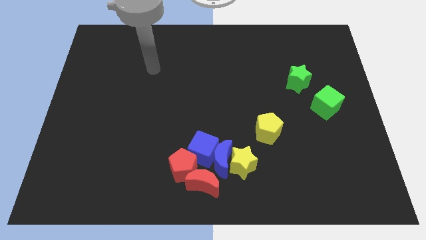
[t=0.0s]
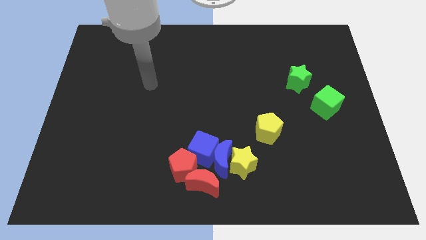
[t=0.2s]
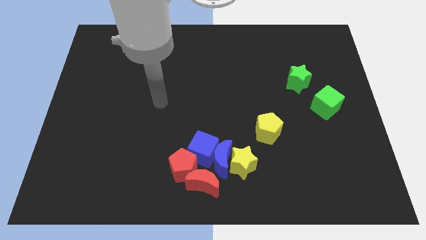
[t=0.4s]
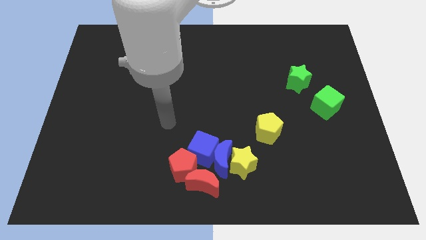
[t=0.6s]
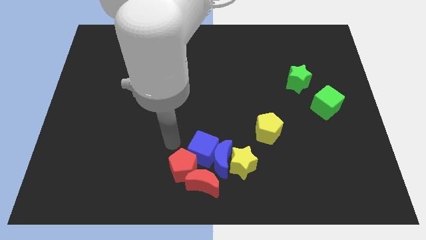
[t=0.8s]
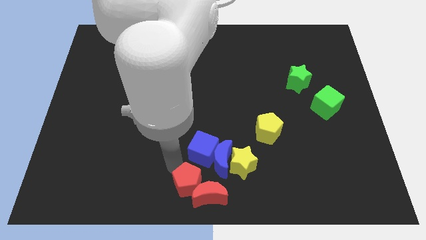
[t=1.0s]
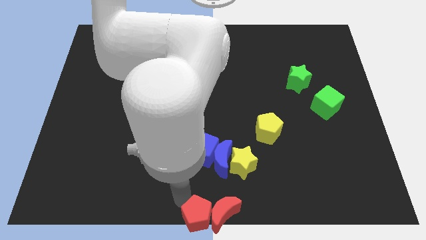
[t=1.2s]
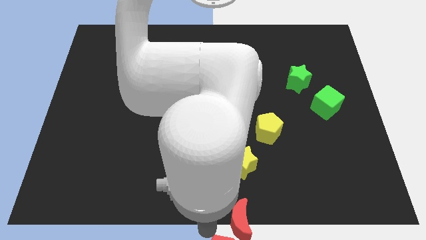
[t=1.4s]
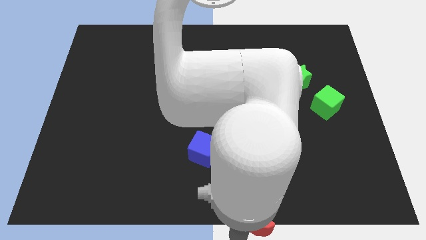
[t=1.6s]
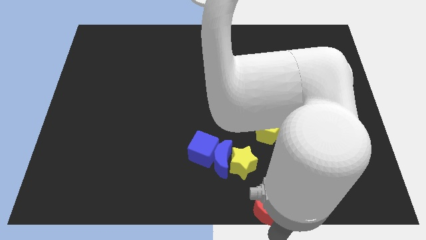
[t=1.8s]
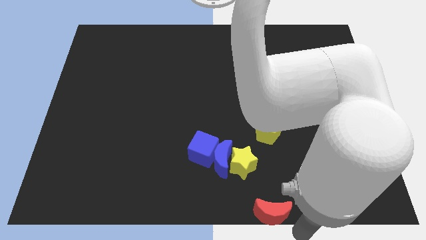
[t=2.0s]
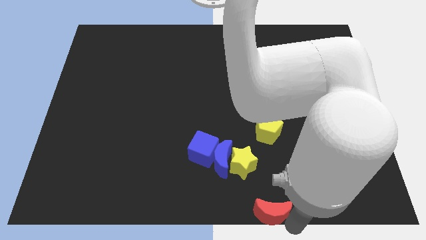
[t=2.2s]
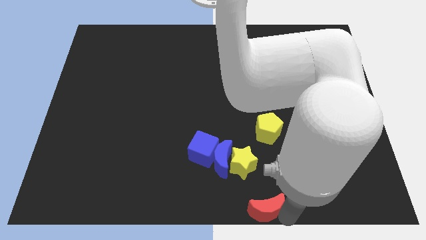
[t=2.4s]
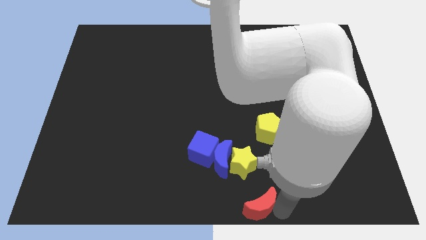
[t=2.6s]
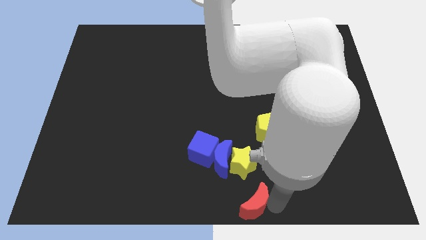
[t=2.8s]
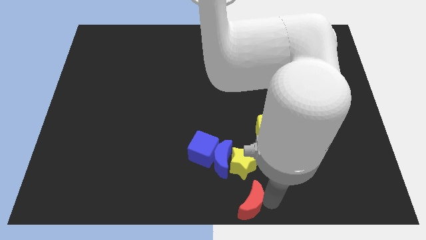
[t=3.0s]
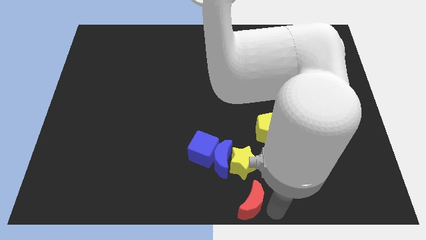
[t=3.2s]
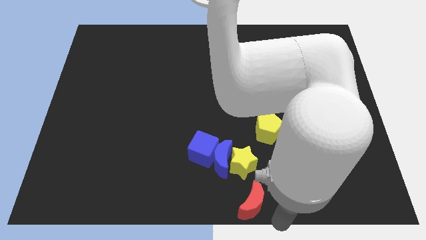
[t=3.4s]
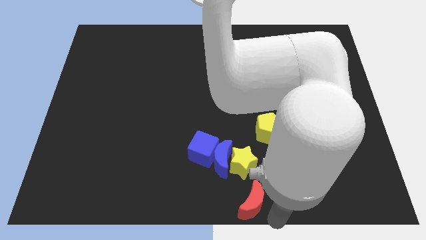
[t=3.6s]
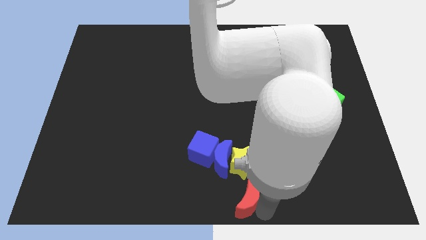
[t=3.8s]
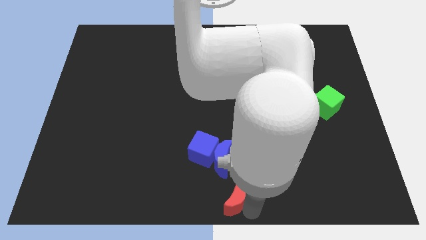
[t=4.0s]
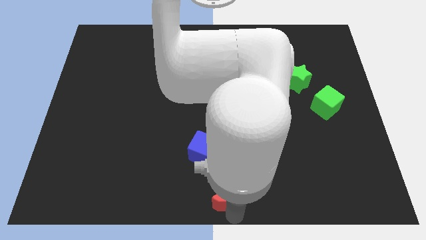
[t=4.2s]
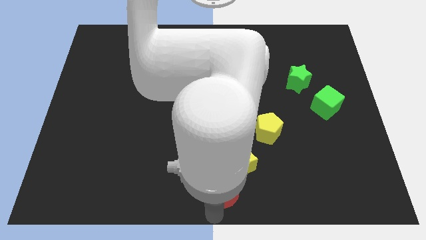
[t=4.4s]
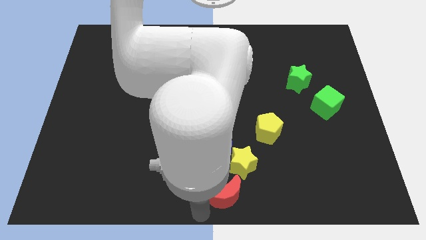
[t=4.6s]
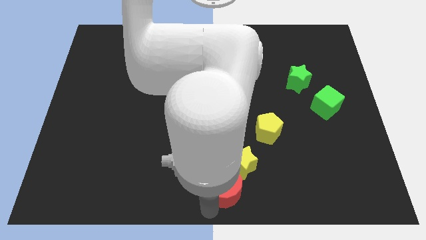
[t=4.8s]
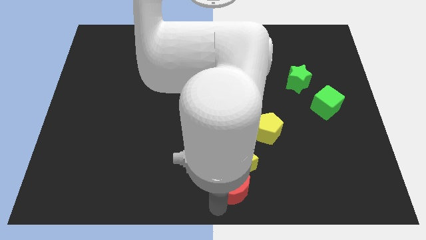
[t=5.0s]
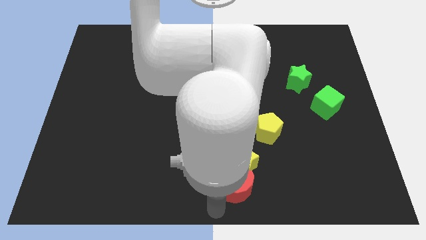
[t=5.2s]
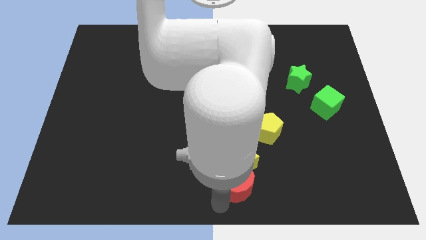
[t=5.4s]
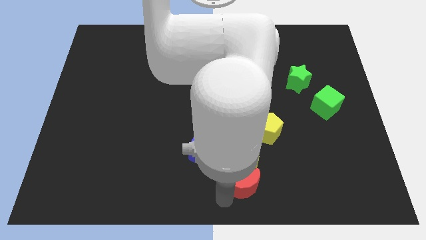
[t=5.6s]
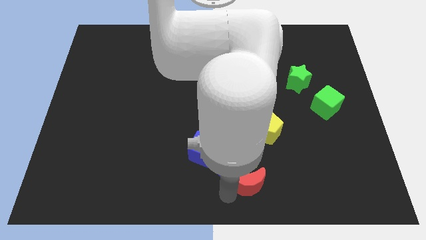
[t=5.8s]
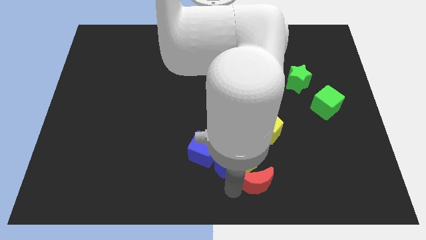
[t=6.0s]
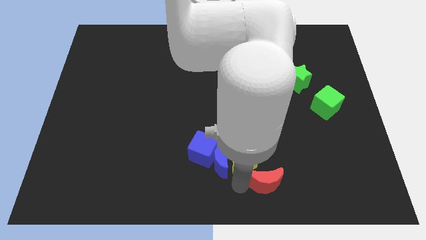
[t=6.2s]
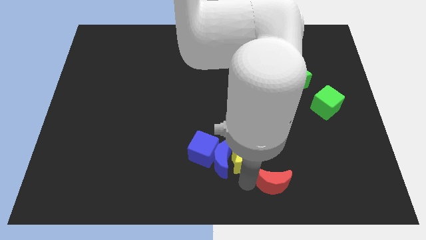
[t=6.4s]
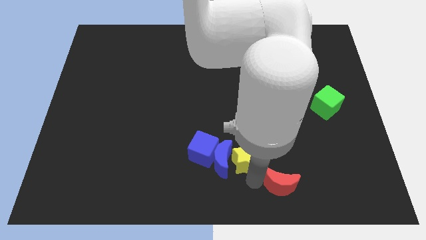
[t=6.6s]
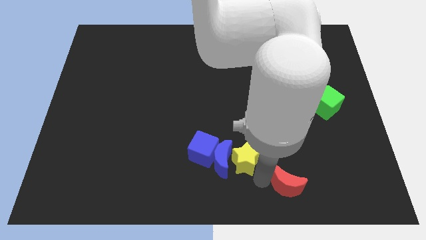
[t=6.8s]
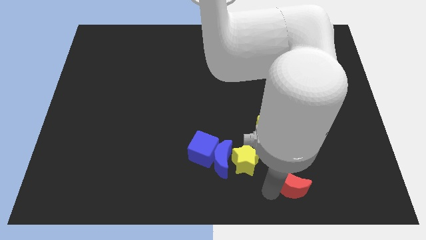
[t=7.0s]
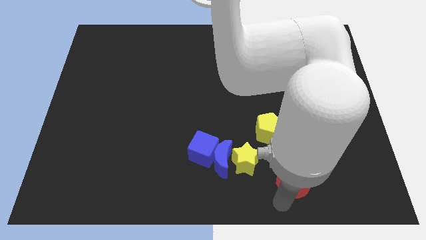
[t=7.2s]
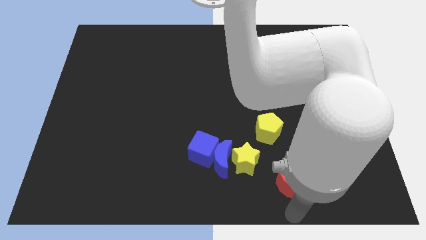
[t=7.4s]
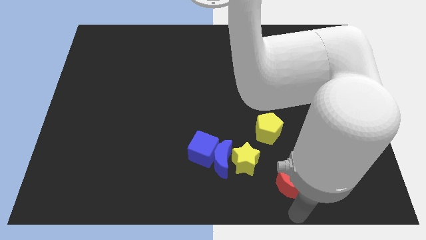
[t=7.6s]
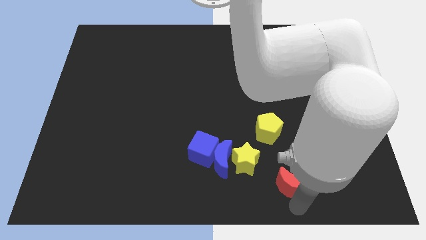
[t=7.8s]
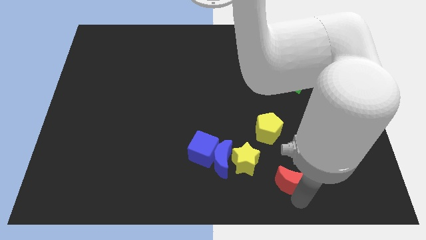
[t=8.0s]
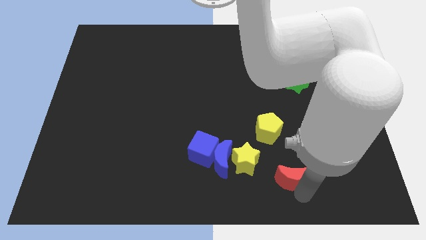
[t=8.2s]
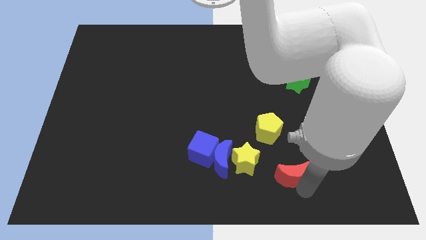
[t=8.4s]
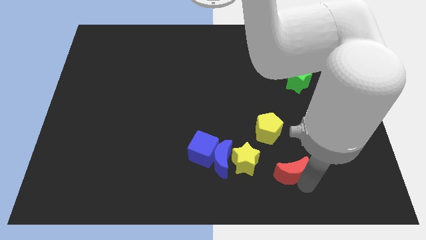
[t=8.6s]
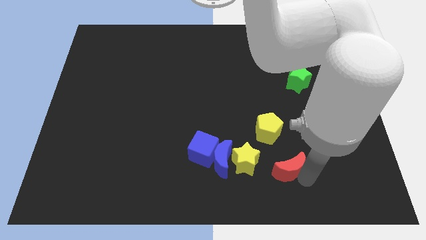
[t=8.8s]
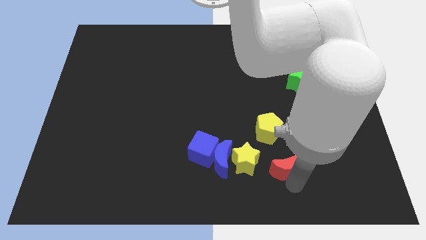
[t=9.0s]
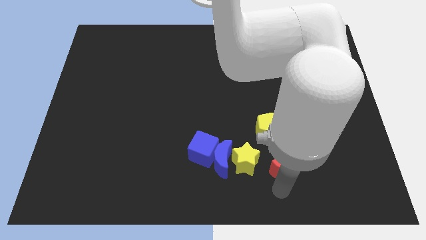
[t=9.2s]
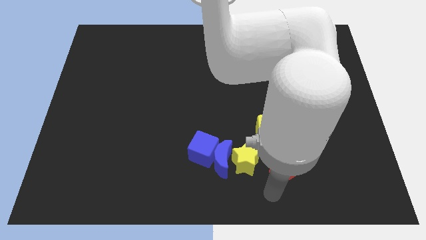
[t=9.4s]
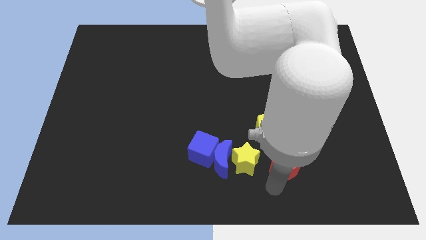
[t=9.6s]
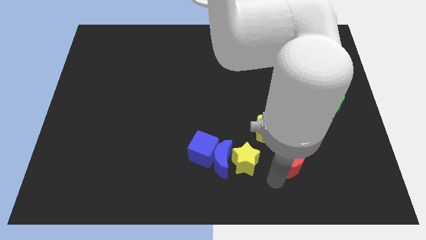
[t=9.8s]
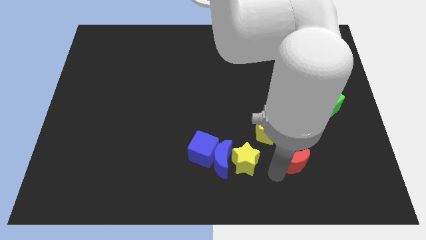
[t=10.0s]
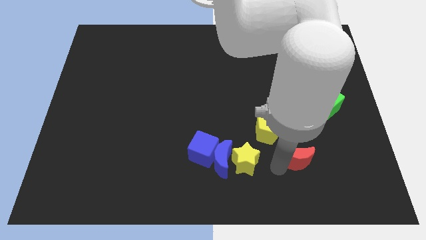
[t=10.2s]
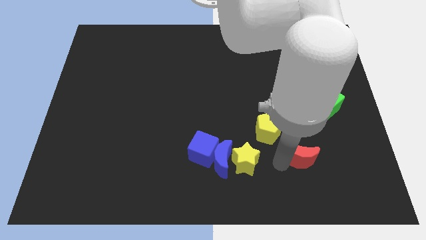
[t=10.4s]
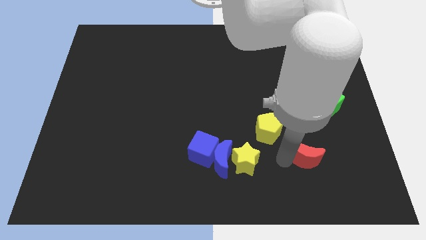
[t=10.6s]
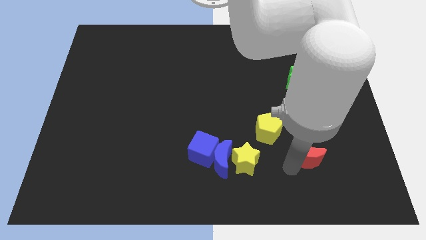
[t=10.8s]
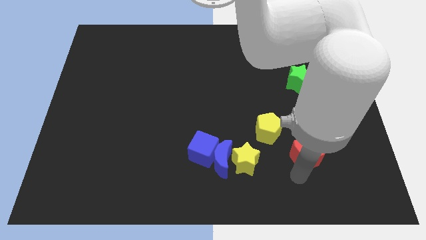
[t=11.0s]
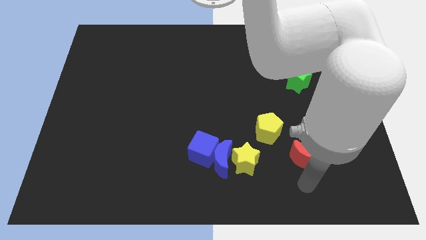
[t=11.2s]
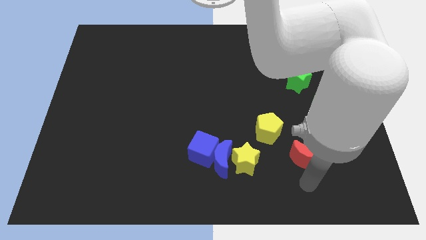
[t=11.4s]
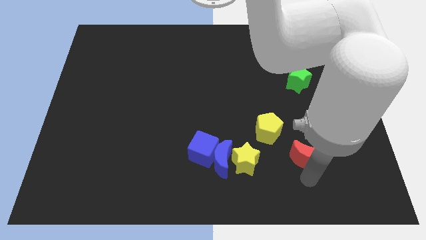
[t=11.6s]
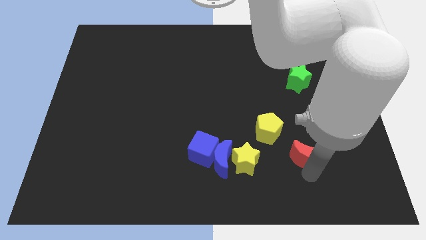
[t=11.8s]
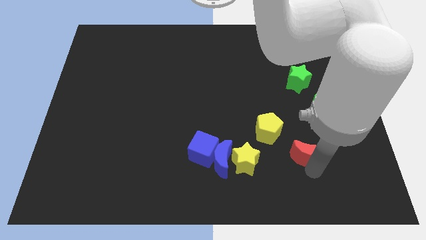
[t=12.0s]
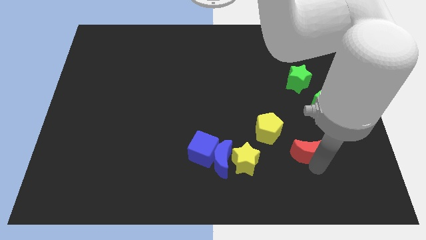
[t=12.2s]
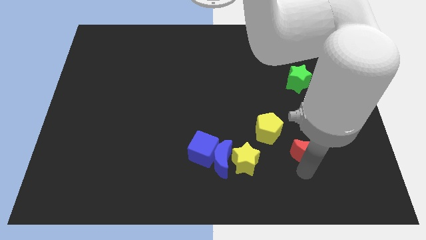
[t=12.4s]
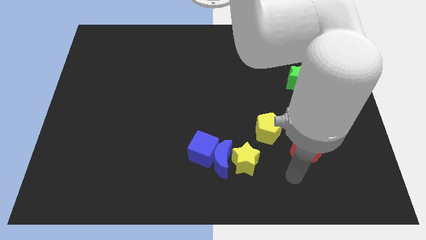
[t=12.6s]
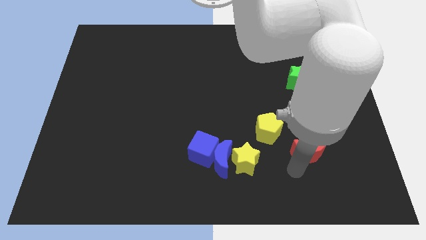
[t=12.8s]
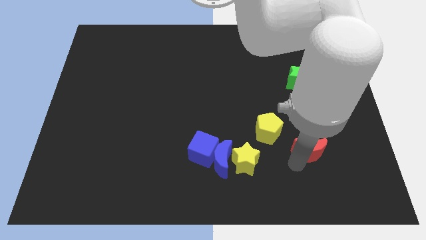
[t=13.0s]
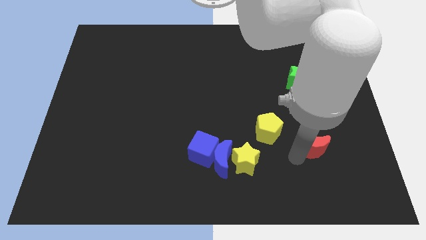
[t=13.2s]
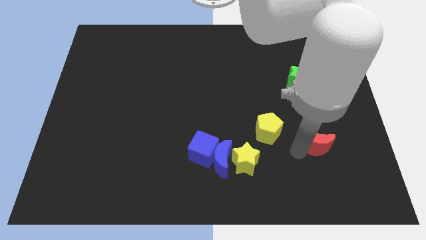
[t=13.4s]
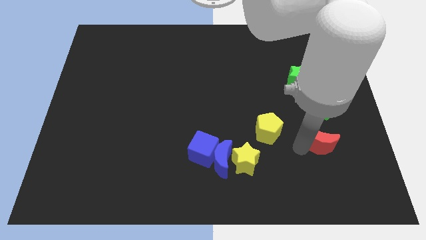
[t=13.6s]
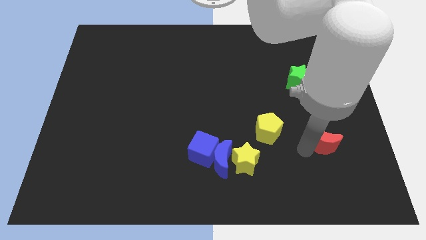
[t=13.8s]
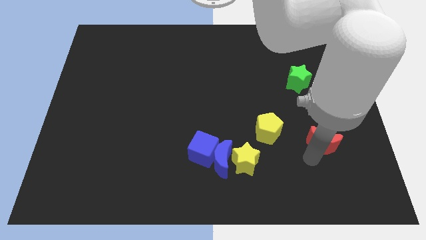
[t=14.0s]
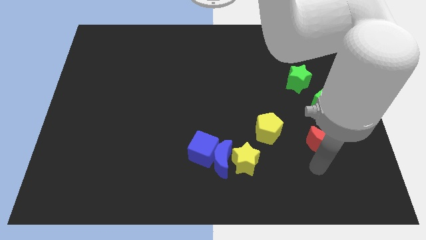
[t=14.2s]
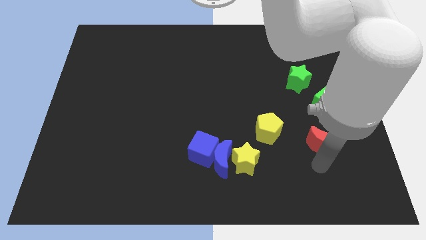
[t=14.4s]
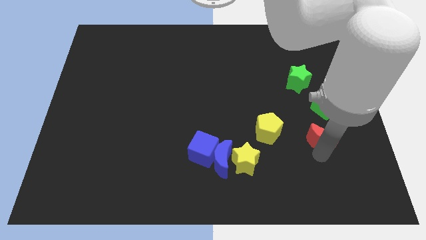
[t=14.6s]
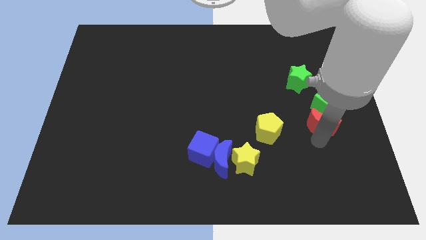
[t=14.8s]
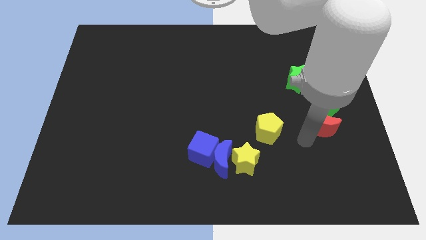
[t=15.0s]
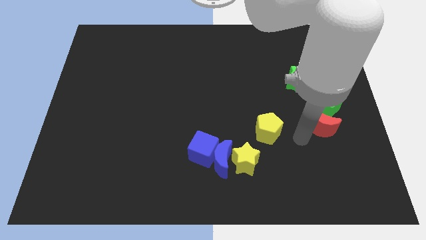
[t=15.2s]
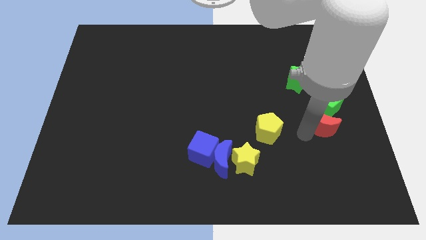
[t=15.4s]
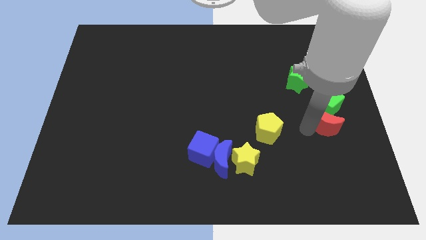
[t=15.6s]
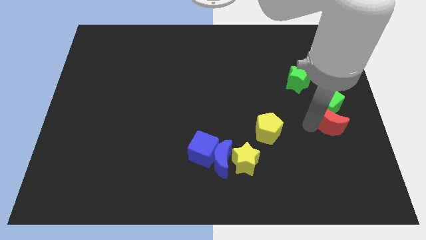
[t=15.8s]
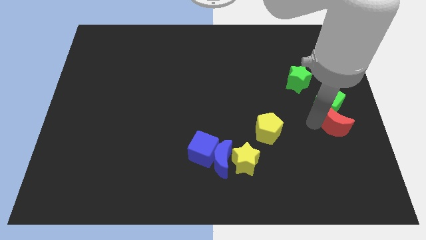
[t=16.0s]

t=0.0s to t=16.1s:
push the red moon to the right side
